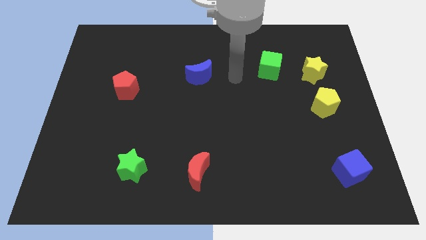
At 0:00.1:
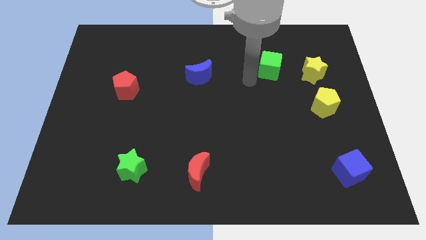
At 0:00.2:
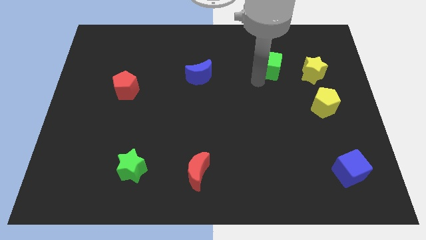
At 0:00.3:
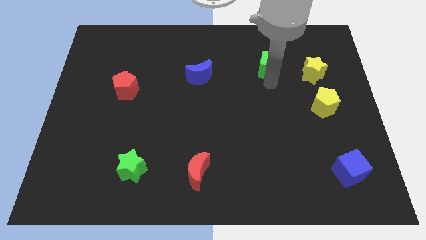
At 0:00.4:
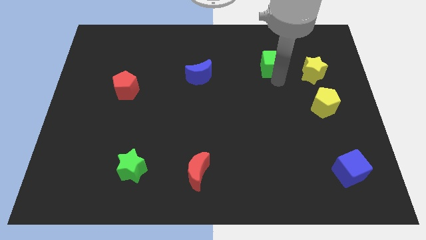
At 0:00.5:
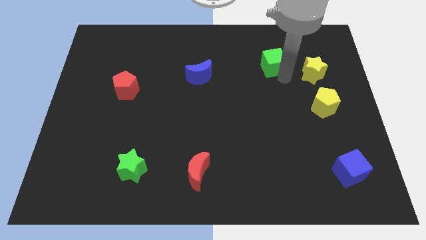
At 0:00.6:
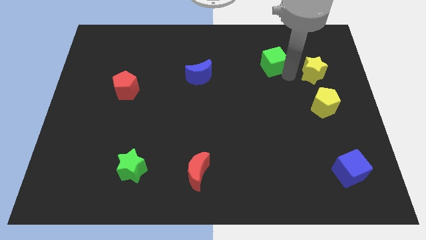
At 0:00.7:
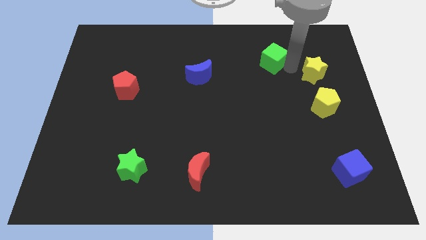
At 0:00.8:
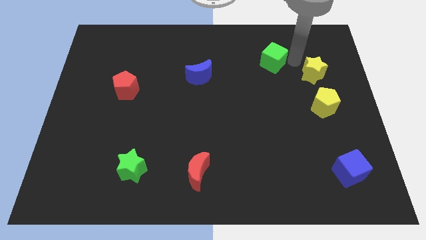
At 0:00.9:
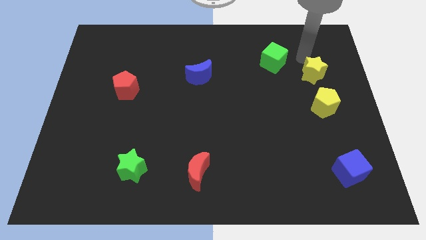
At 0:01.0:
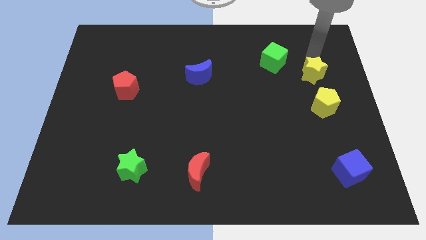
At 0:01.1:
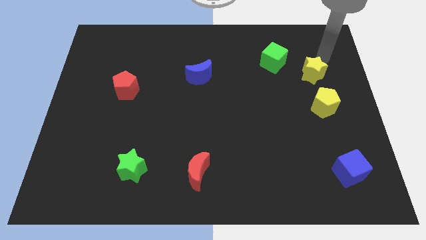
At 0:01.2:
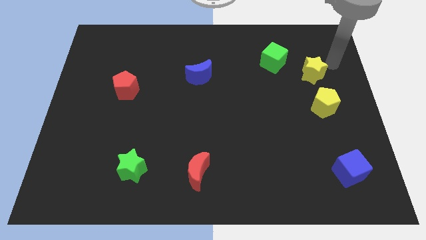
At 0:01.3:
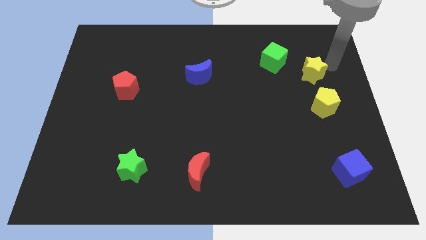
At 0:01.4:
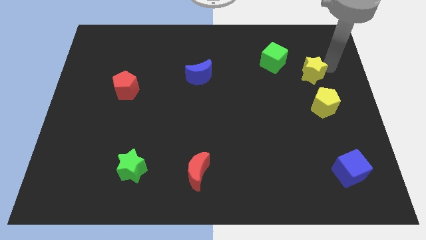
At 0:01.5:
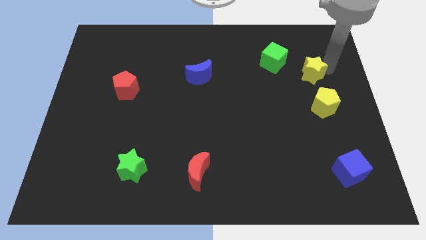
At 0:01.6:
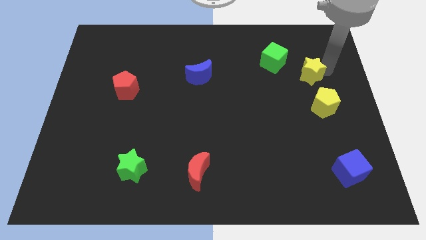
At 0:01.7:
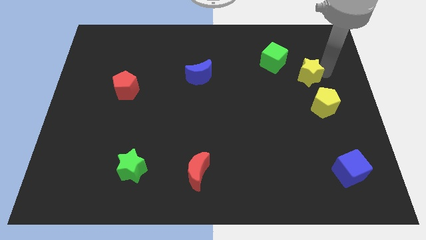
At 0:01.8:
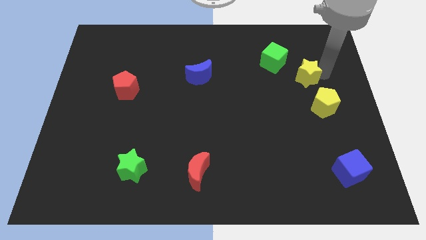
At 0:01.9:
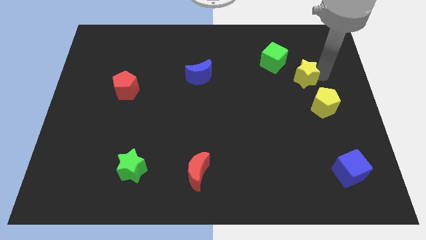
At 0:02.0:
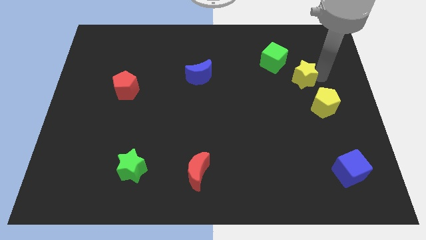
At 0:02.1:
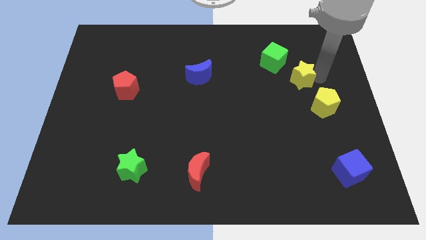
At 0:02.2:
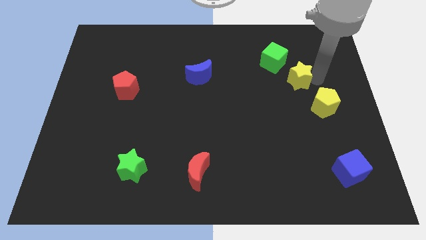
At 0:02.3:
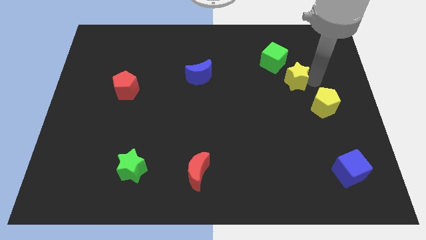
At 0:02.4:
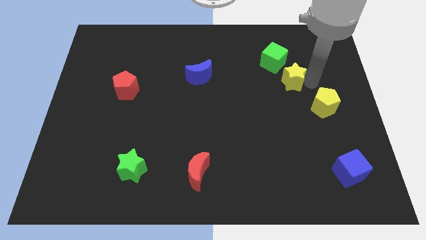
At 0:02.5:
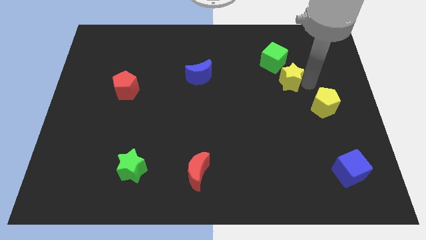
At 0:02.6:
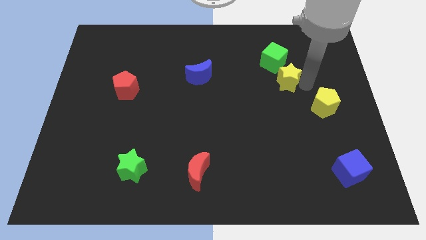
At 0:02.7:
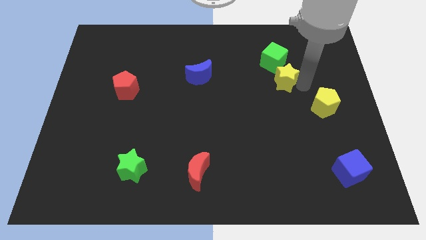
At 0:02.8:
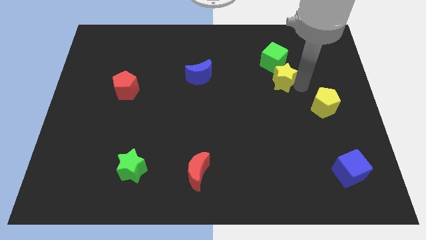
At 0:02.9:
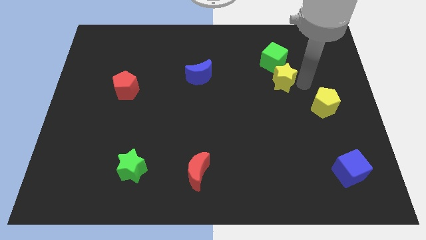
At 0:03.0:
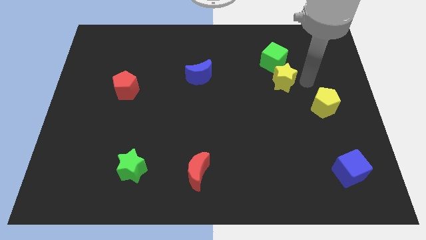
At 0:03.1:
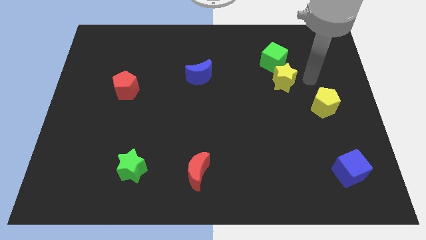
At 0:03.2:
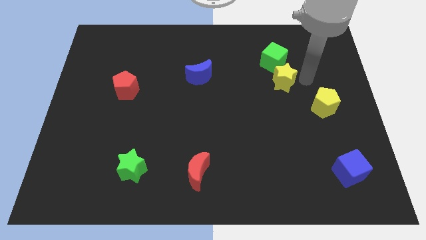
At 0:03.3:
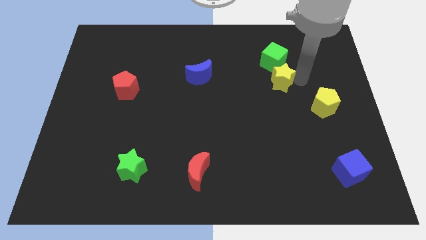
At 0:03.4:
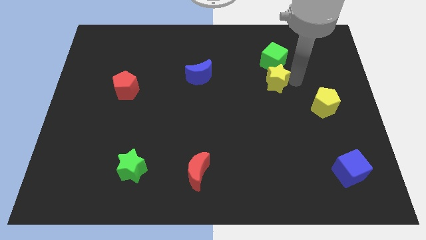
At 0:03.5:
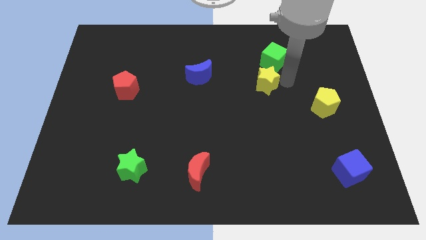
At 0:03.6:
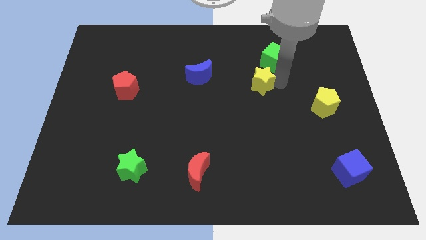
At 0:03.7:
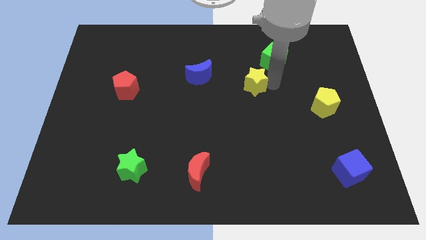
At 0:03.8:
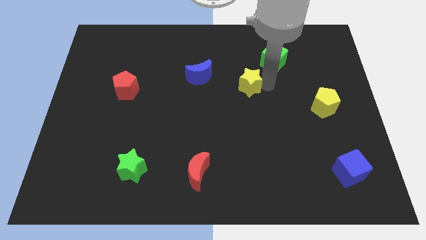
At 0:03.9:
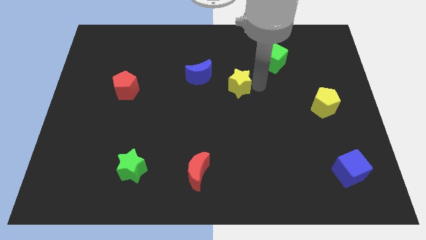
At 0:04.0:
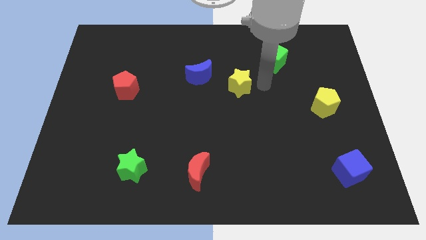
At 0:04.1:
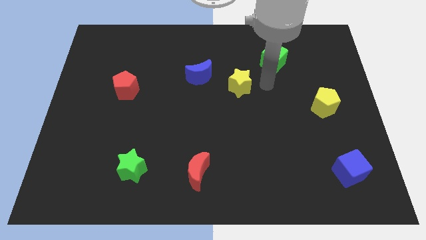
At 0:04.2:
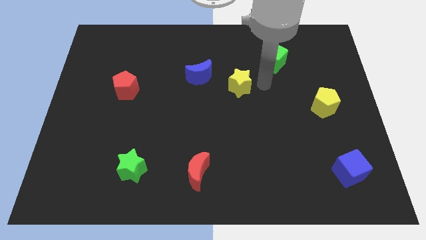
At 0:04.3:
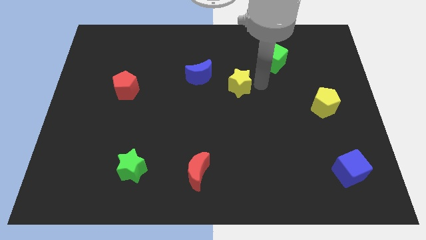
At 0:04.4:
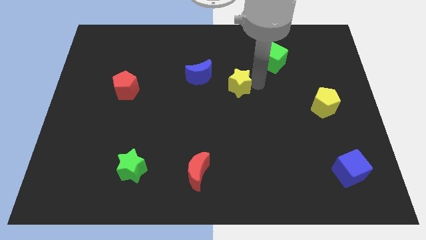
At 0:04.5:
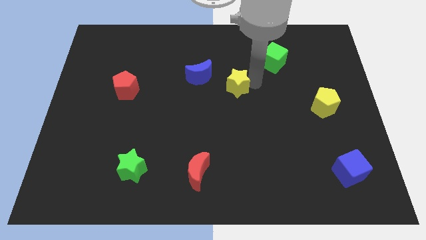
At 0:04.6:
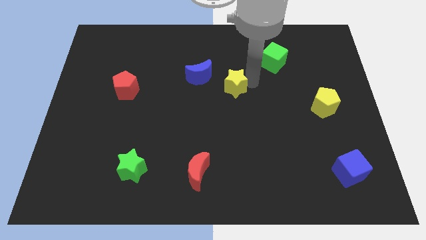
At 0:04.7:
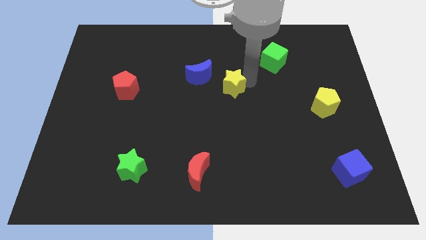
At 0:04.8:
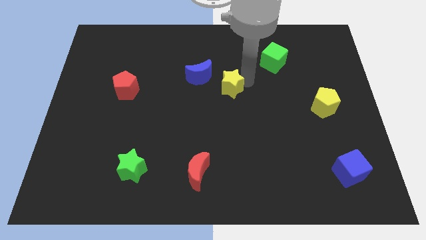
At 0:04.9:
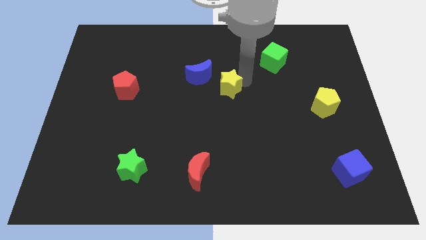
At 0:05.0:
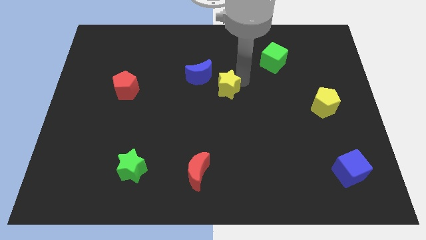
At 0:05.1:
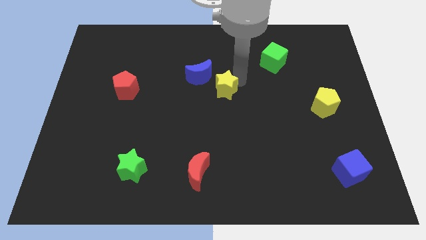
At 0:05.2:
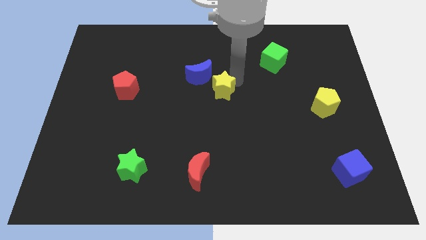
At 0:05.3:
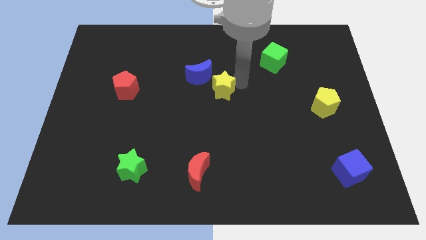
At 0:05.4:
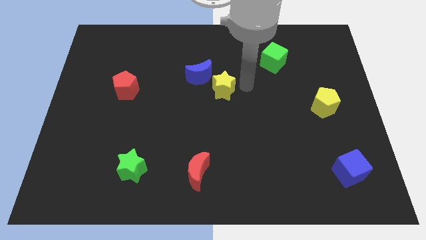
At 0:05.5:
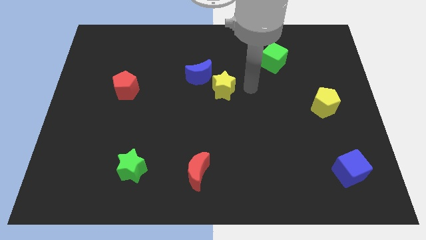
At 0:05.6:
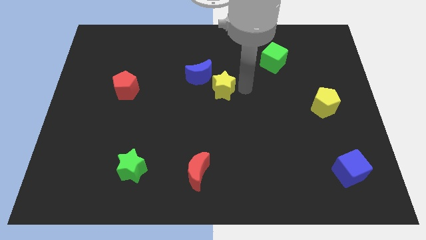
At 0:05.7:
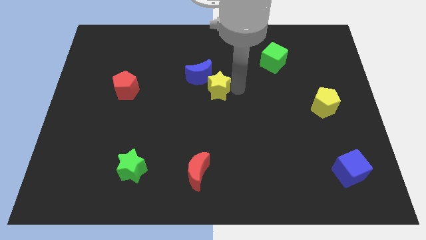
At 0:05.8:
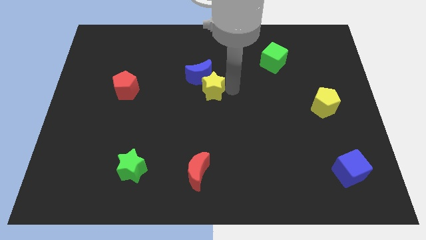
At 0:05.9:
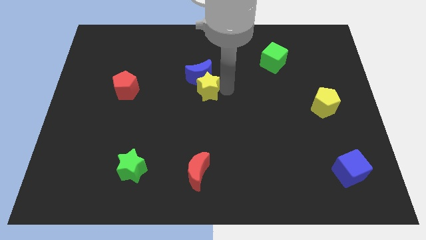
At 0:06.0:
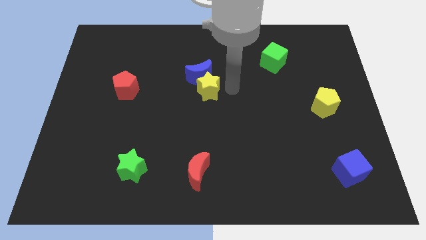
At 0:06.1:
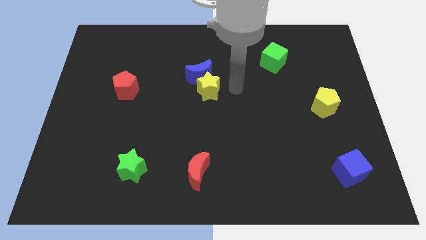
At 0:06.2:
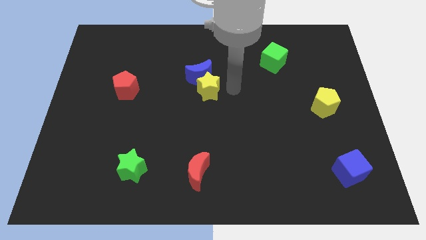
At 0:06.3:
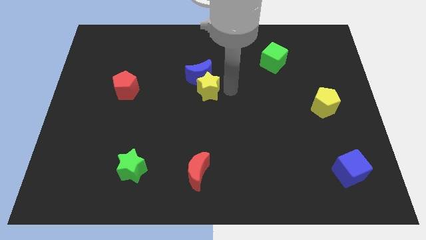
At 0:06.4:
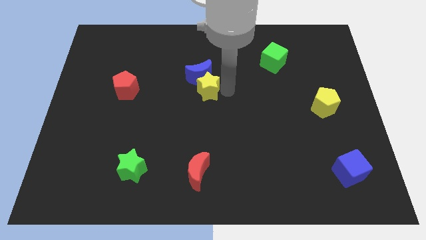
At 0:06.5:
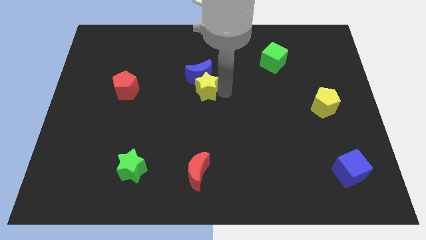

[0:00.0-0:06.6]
put the yellow star to the bottom left side of the blue moon
